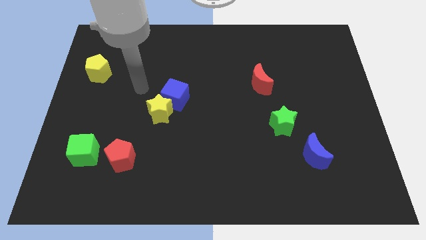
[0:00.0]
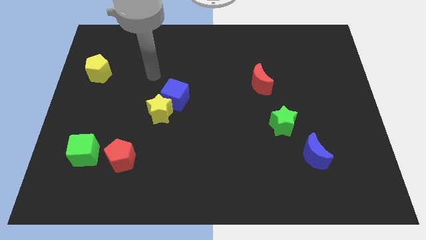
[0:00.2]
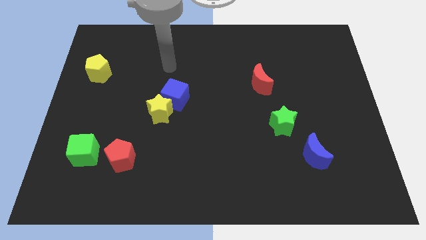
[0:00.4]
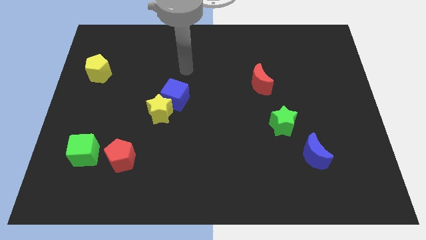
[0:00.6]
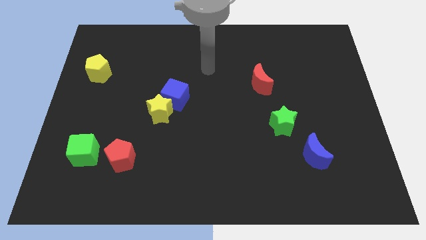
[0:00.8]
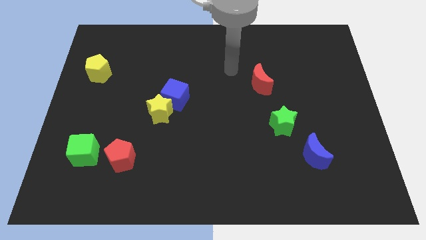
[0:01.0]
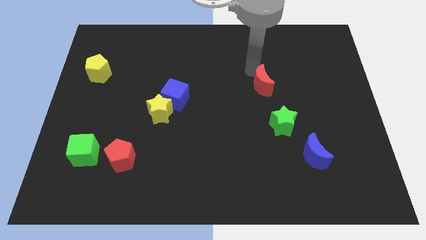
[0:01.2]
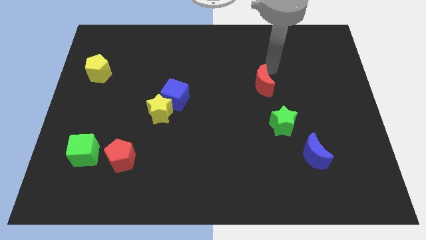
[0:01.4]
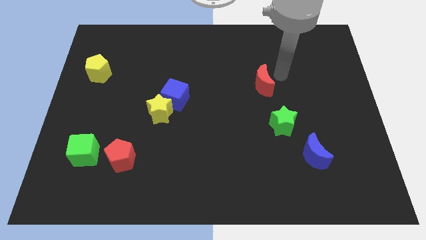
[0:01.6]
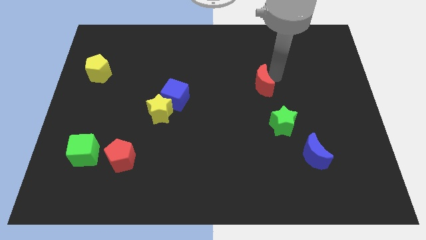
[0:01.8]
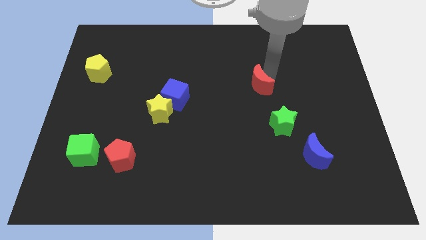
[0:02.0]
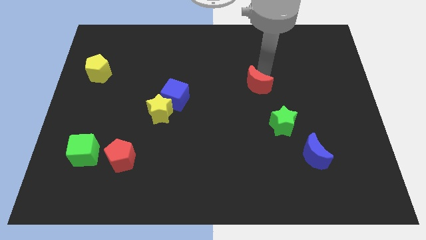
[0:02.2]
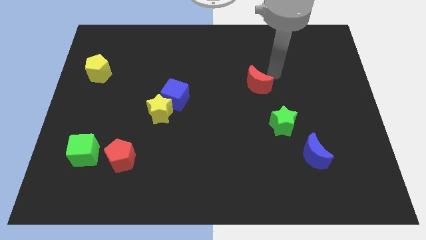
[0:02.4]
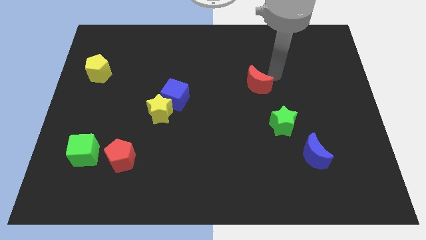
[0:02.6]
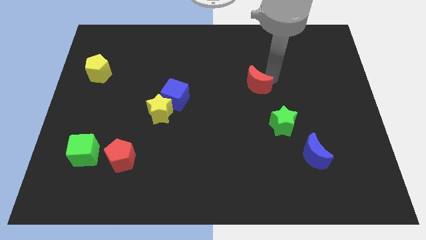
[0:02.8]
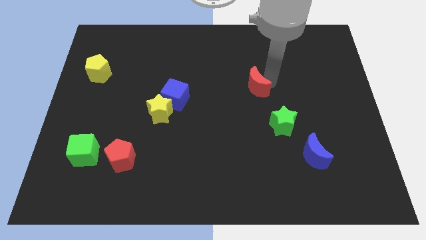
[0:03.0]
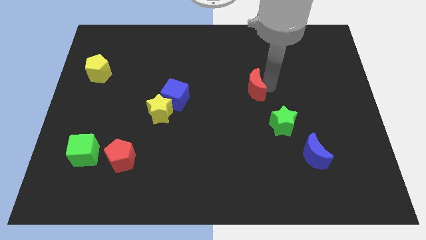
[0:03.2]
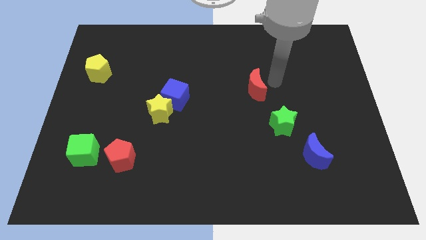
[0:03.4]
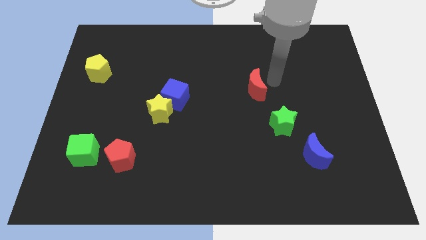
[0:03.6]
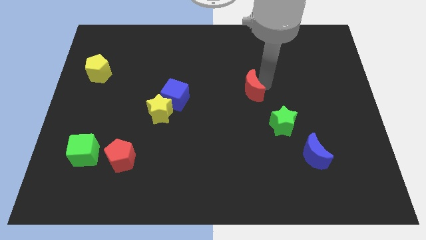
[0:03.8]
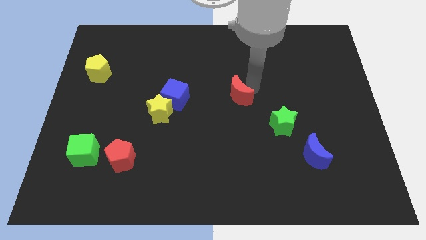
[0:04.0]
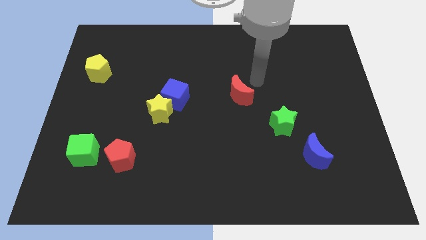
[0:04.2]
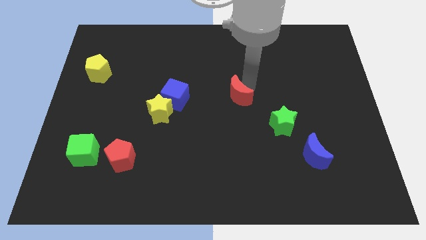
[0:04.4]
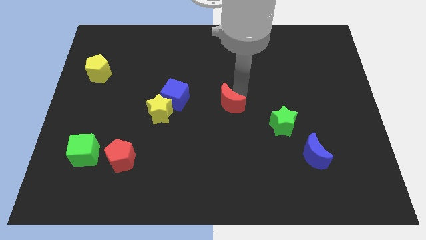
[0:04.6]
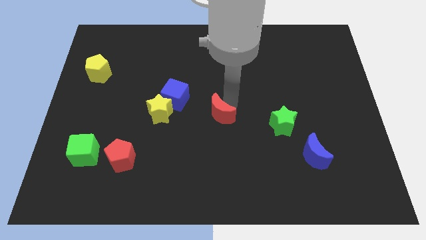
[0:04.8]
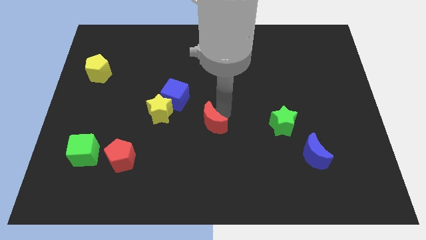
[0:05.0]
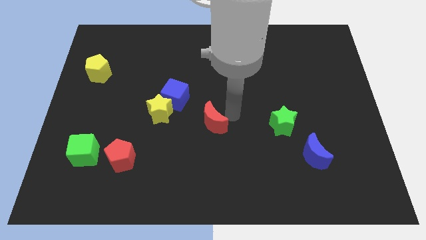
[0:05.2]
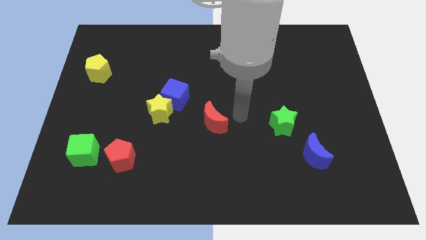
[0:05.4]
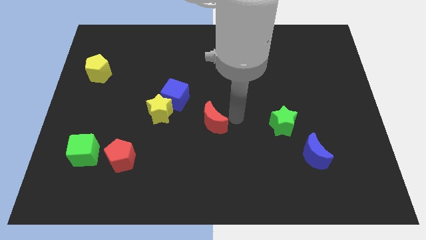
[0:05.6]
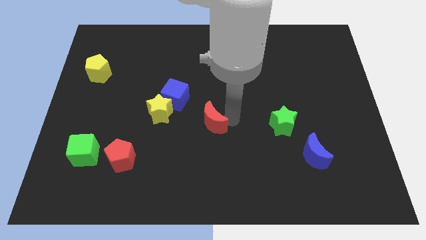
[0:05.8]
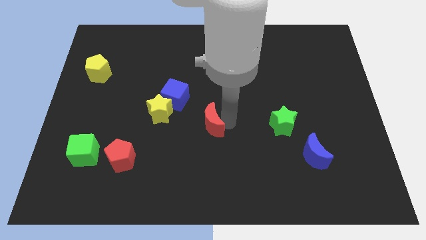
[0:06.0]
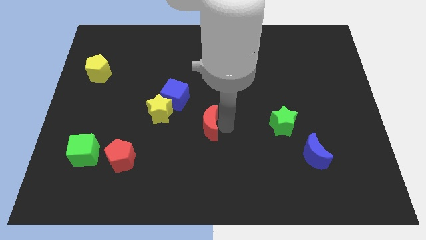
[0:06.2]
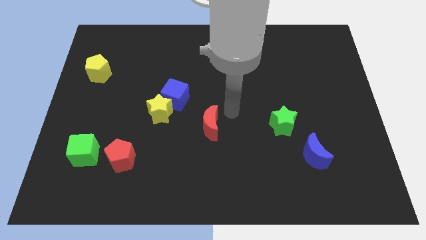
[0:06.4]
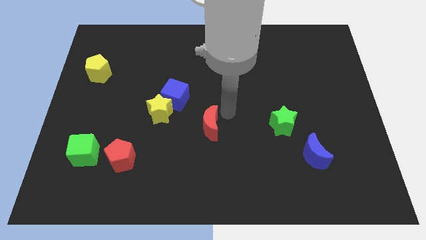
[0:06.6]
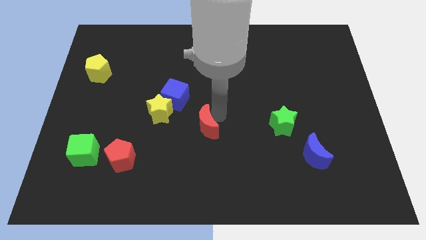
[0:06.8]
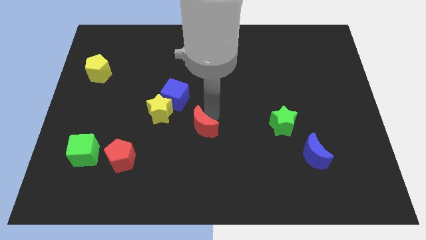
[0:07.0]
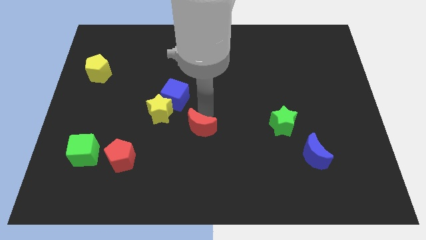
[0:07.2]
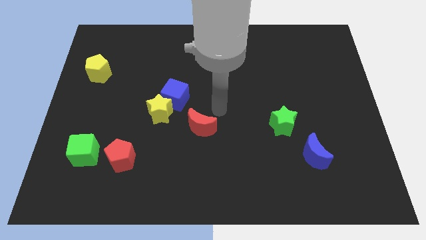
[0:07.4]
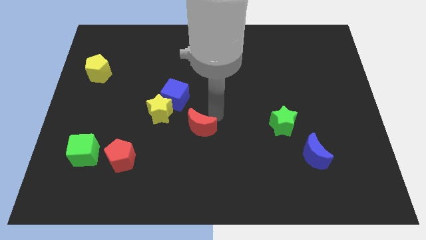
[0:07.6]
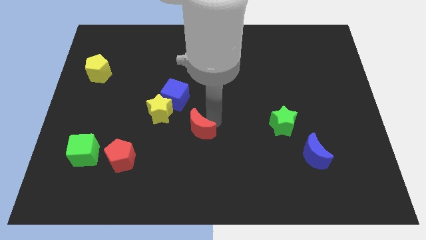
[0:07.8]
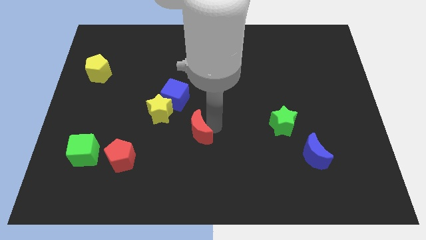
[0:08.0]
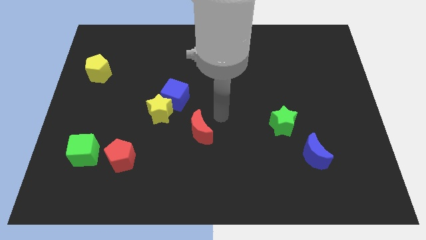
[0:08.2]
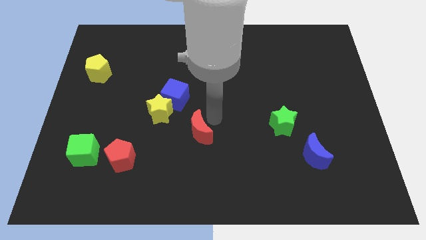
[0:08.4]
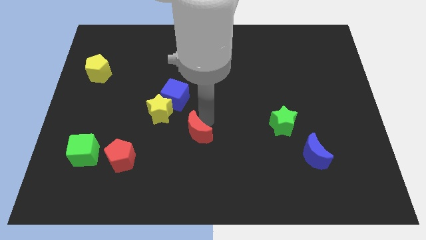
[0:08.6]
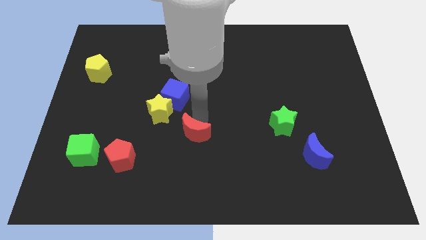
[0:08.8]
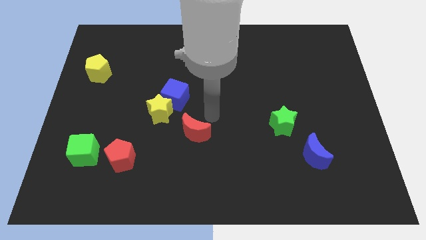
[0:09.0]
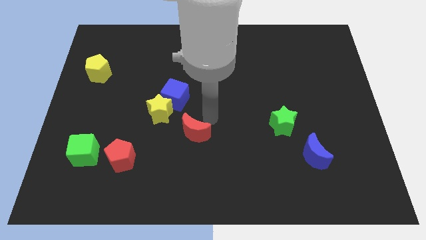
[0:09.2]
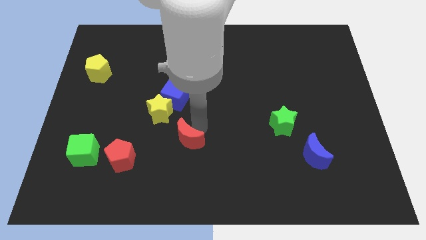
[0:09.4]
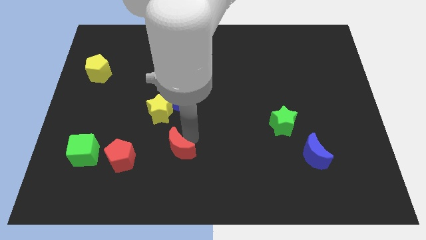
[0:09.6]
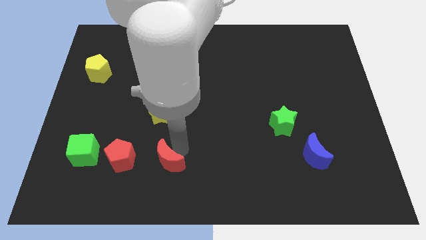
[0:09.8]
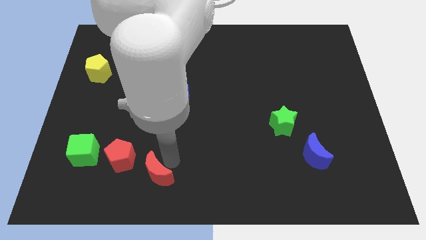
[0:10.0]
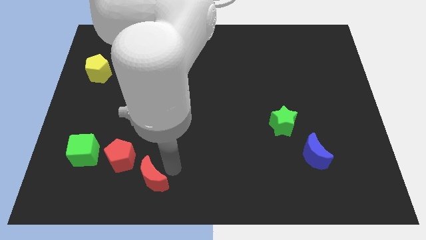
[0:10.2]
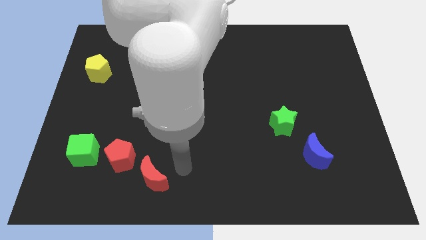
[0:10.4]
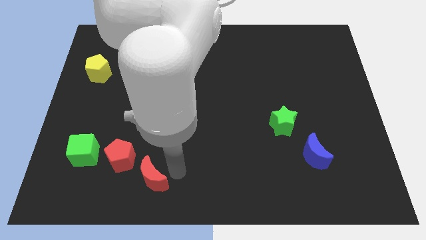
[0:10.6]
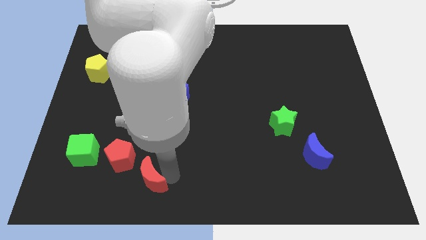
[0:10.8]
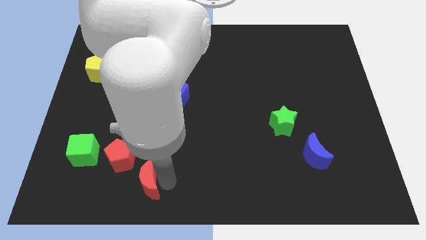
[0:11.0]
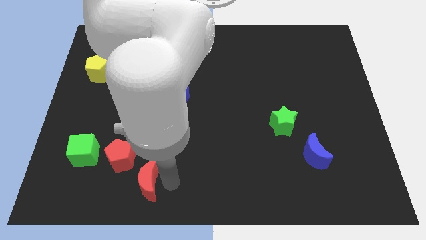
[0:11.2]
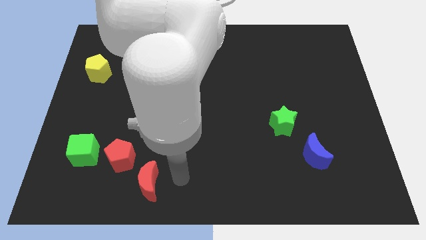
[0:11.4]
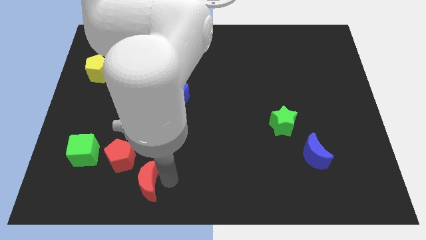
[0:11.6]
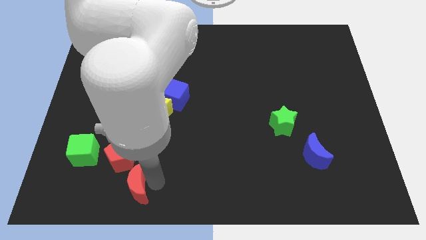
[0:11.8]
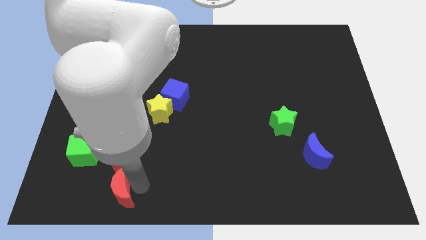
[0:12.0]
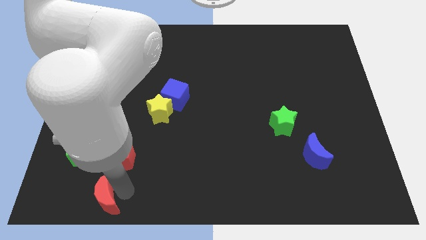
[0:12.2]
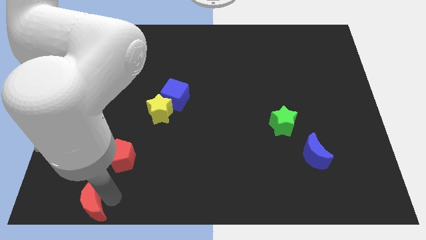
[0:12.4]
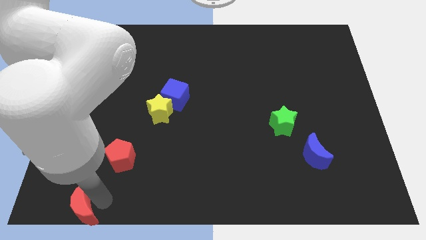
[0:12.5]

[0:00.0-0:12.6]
put the red moon to the bottom left of the board
